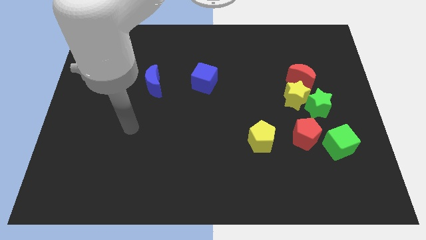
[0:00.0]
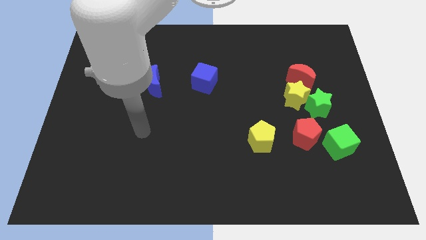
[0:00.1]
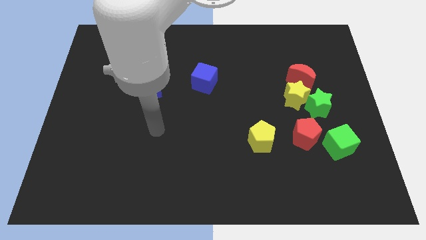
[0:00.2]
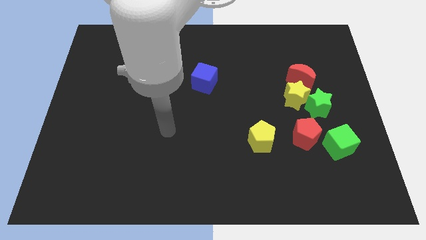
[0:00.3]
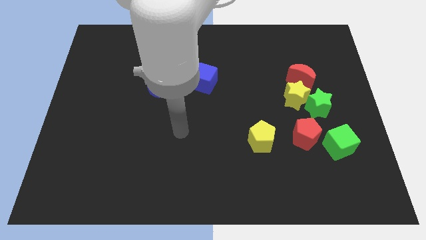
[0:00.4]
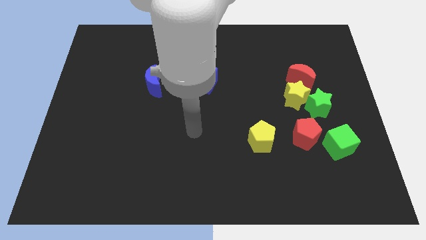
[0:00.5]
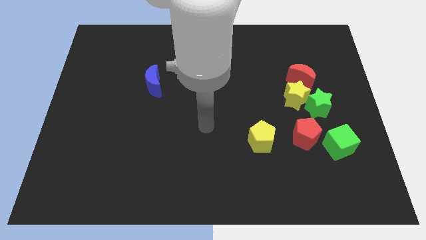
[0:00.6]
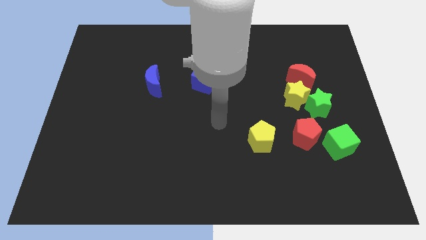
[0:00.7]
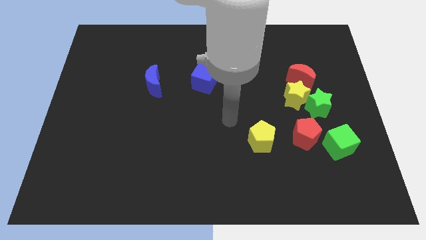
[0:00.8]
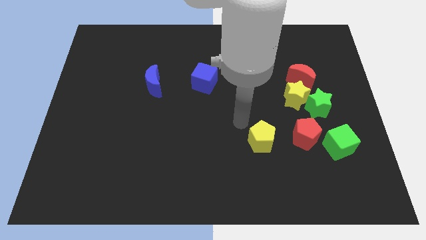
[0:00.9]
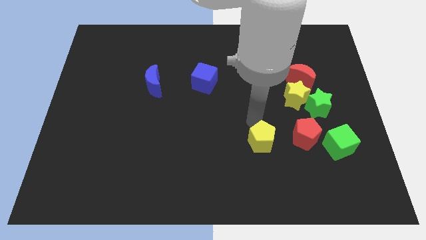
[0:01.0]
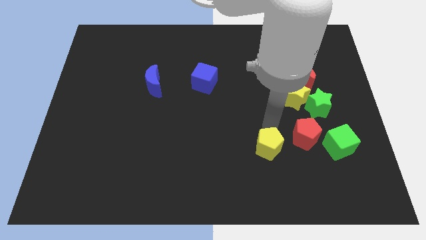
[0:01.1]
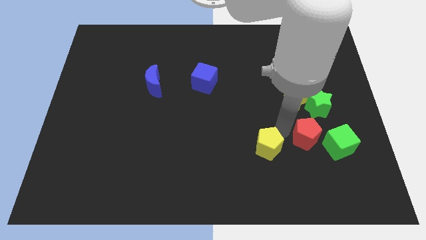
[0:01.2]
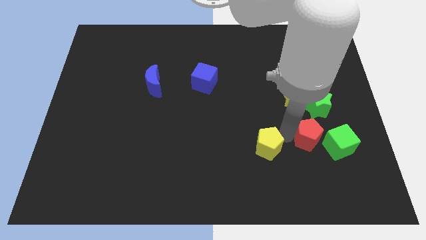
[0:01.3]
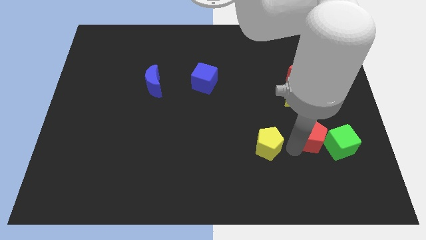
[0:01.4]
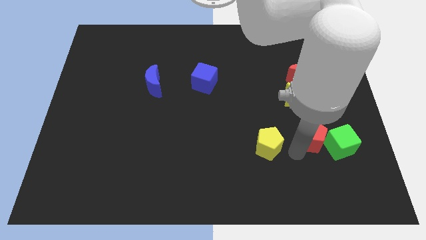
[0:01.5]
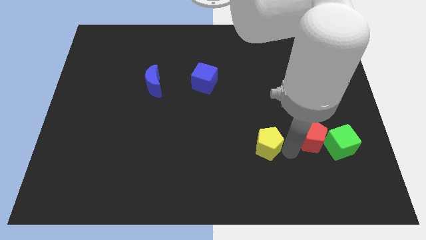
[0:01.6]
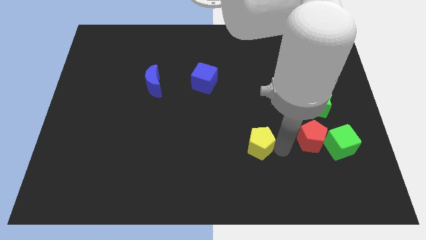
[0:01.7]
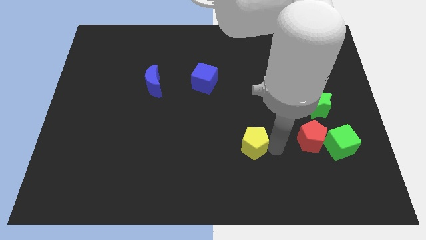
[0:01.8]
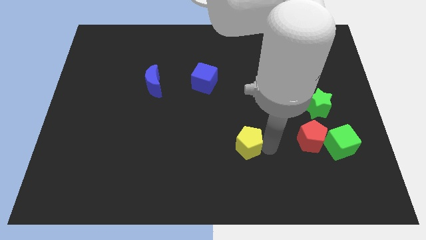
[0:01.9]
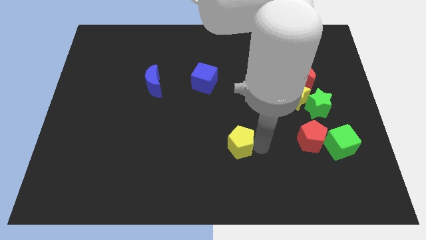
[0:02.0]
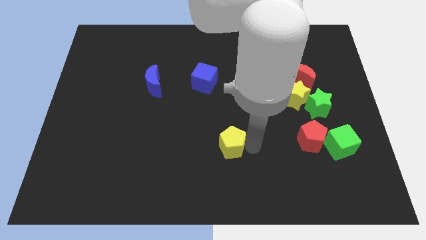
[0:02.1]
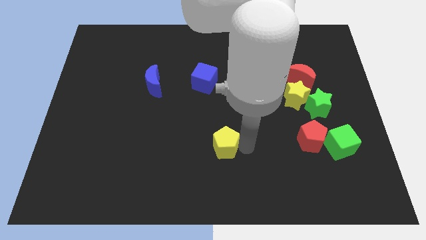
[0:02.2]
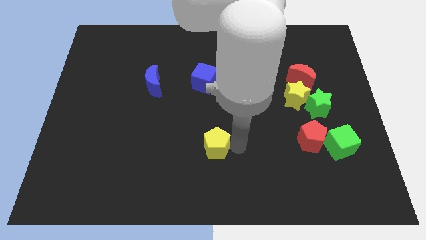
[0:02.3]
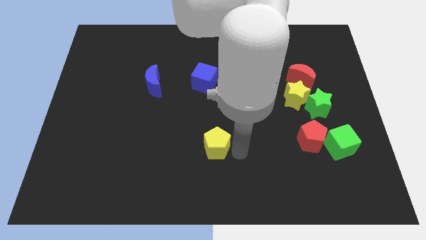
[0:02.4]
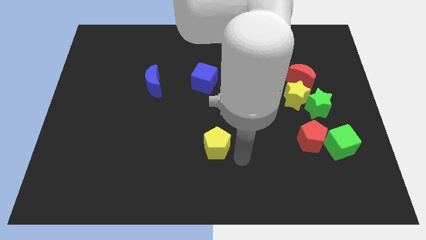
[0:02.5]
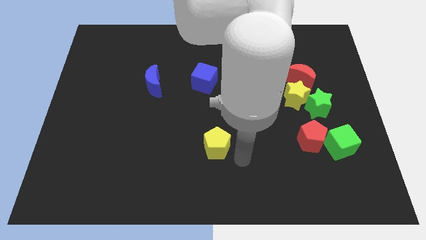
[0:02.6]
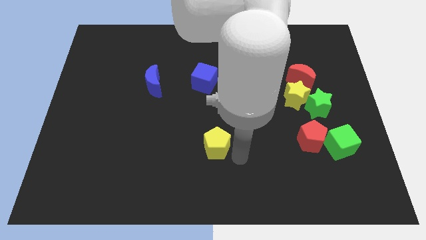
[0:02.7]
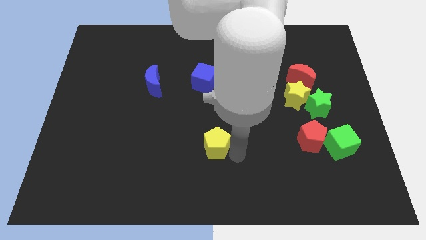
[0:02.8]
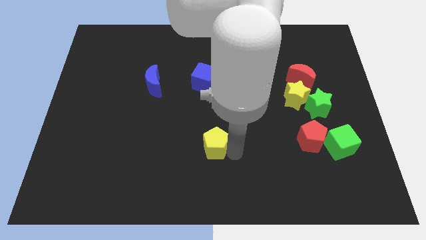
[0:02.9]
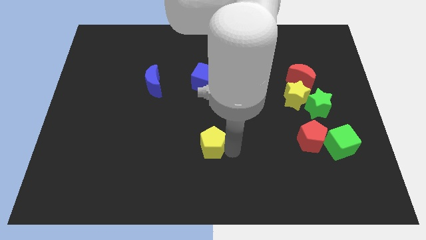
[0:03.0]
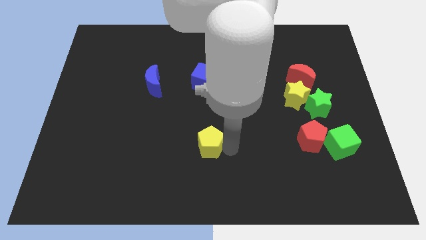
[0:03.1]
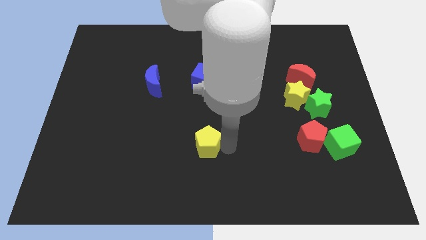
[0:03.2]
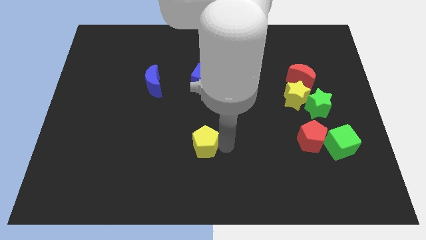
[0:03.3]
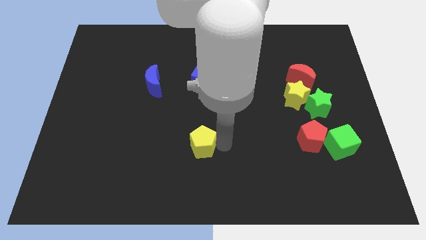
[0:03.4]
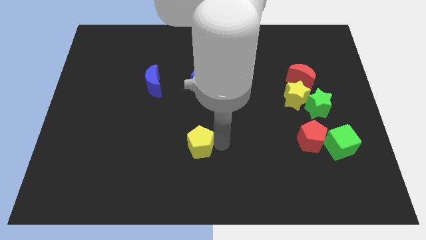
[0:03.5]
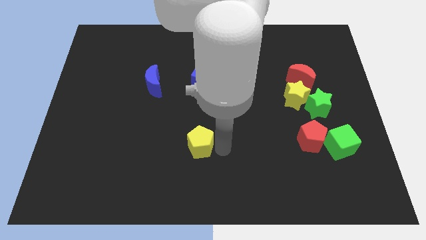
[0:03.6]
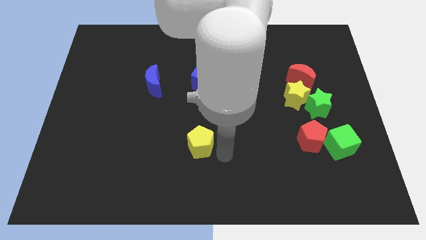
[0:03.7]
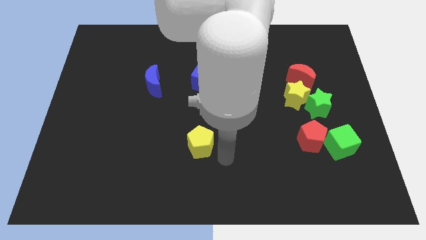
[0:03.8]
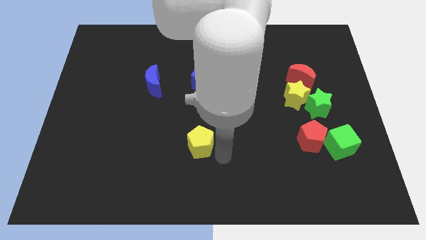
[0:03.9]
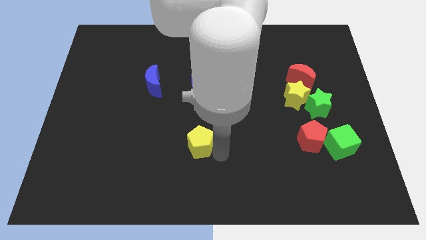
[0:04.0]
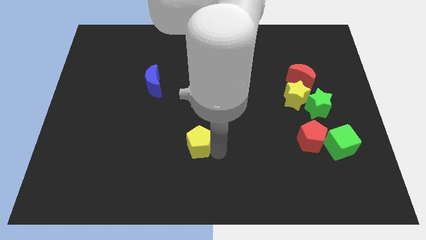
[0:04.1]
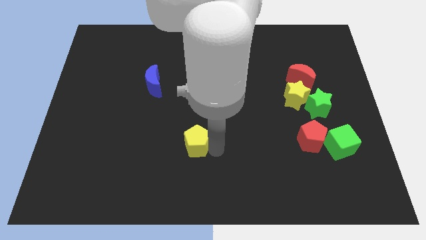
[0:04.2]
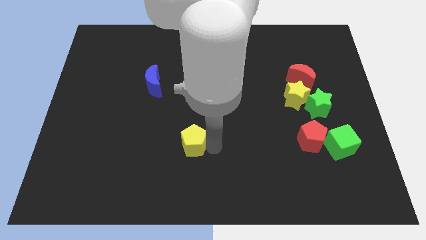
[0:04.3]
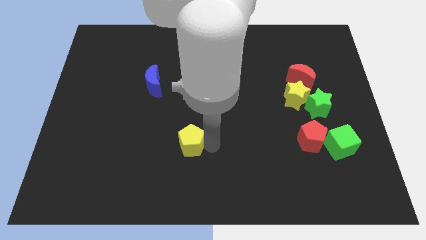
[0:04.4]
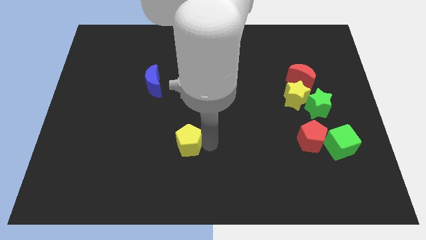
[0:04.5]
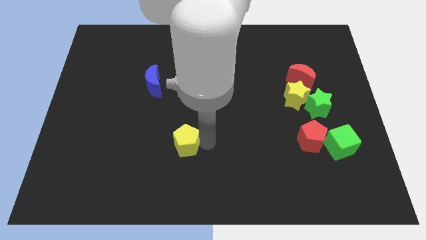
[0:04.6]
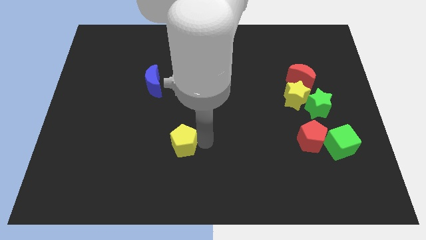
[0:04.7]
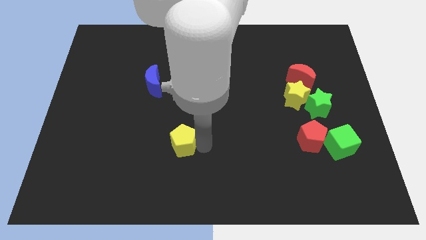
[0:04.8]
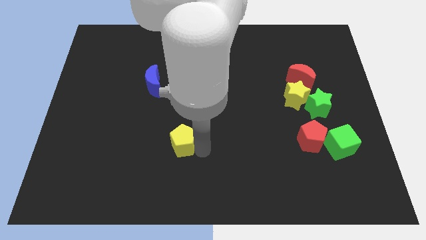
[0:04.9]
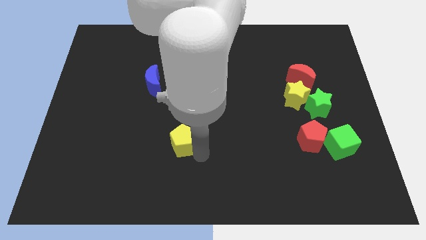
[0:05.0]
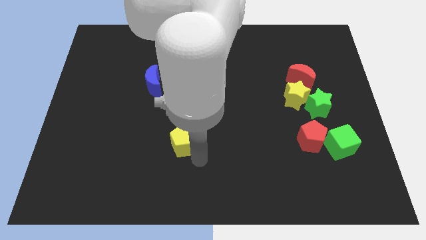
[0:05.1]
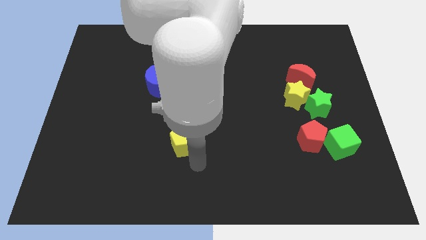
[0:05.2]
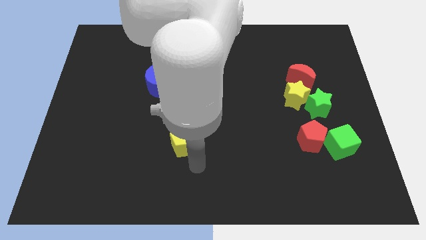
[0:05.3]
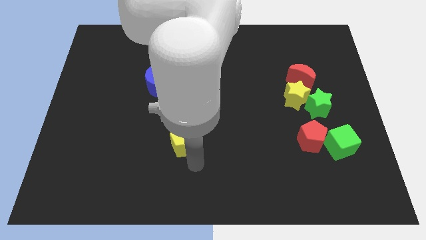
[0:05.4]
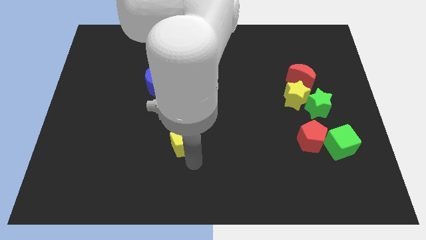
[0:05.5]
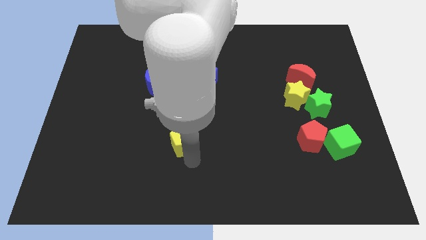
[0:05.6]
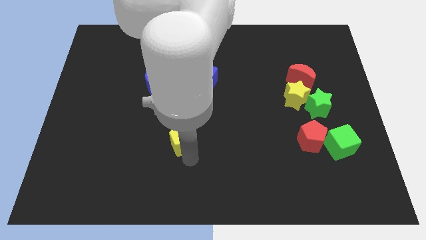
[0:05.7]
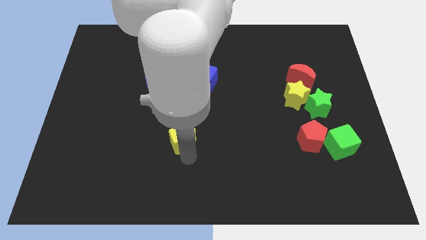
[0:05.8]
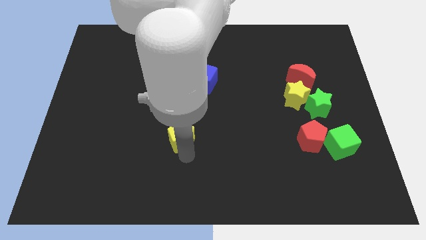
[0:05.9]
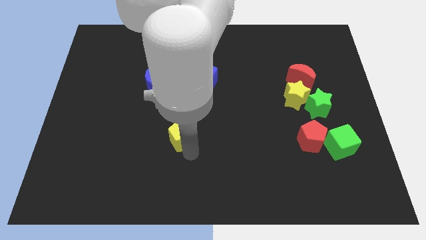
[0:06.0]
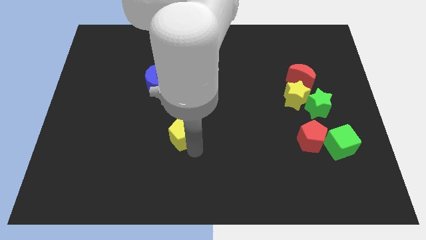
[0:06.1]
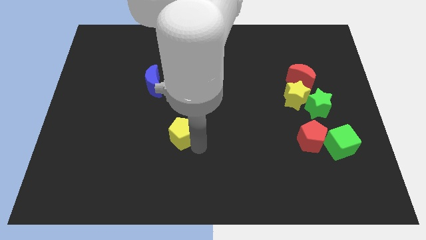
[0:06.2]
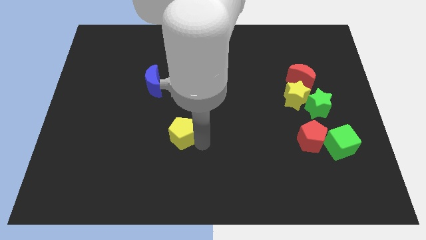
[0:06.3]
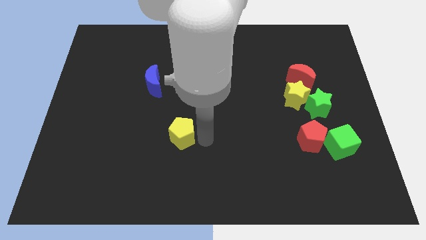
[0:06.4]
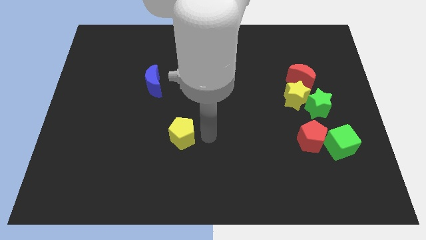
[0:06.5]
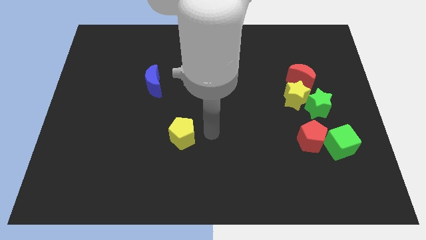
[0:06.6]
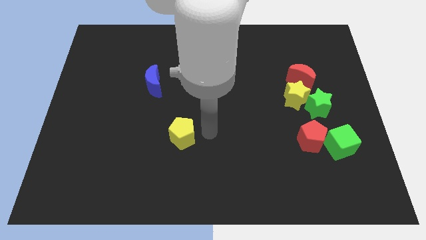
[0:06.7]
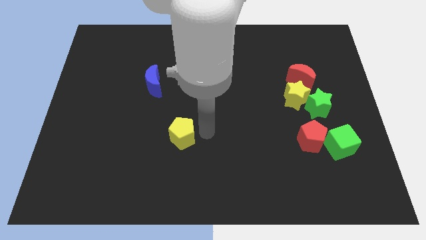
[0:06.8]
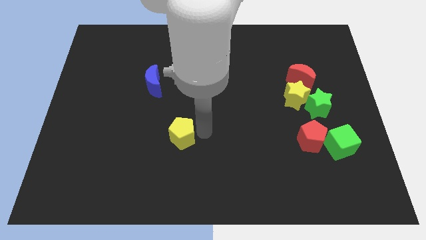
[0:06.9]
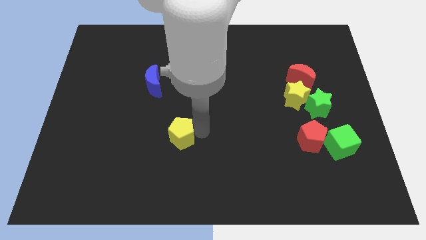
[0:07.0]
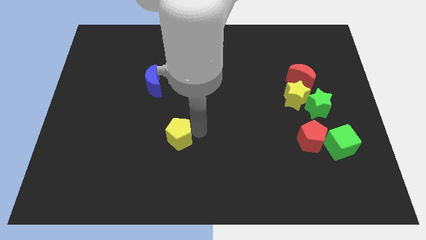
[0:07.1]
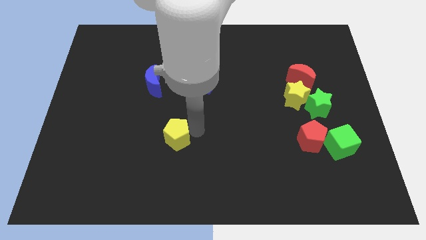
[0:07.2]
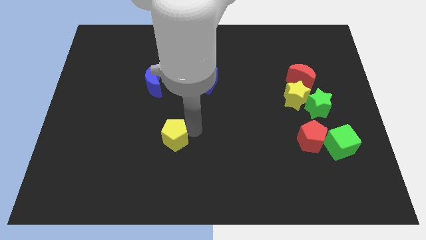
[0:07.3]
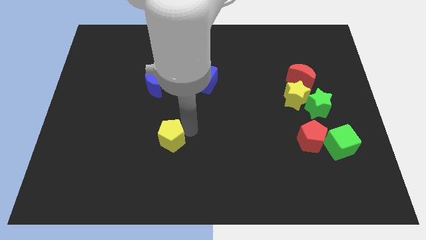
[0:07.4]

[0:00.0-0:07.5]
push the yellow pentagon to the left

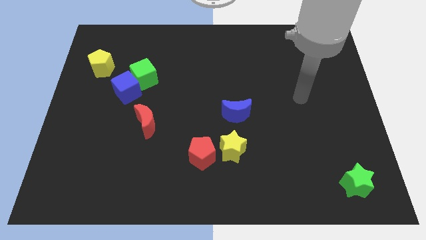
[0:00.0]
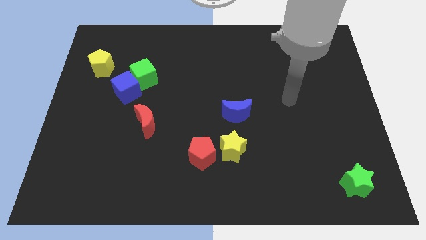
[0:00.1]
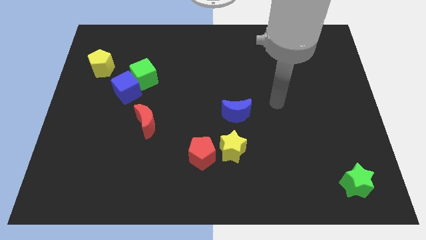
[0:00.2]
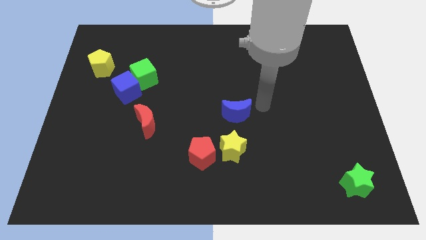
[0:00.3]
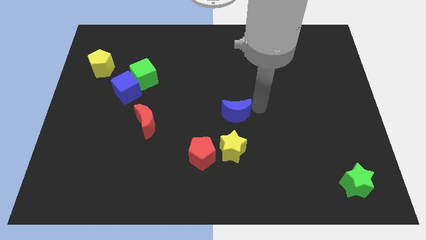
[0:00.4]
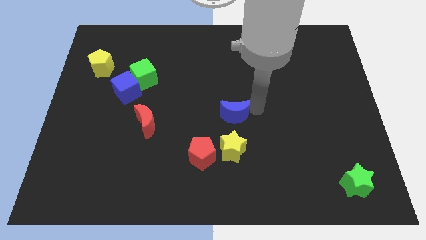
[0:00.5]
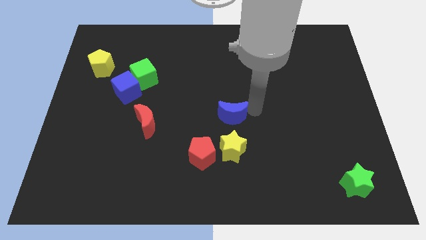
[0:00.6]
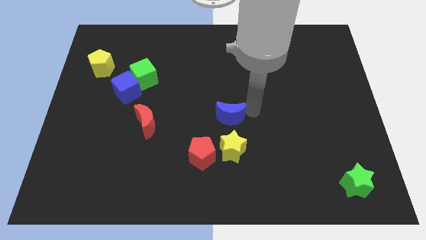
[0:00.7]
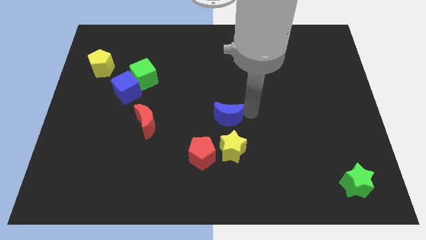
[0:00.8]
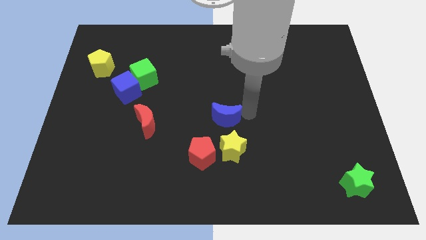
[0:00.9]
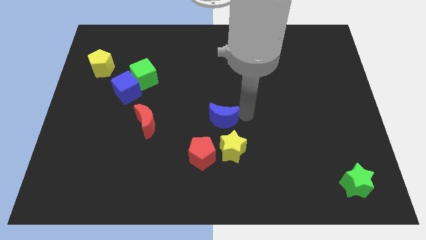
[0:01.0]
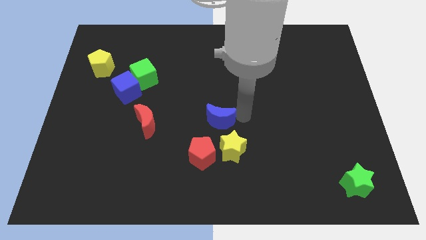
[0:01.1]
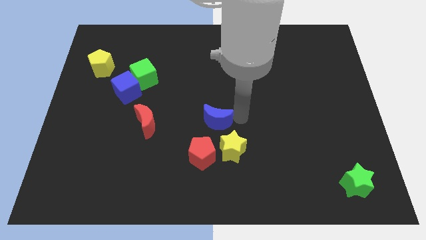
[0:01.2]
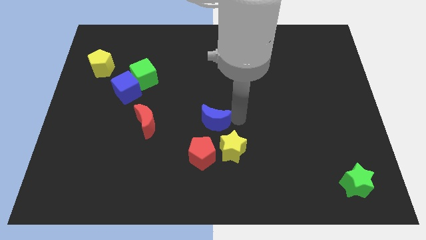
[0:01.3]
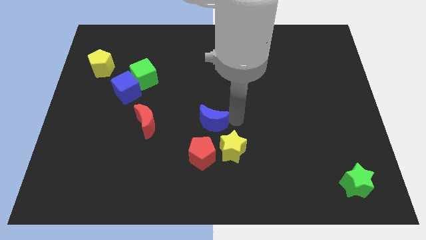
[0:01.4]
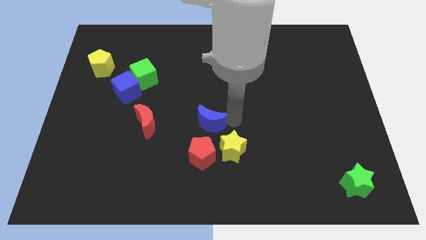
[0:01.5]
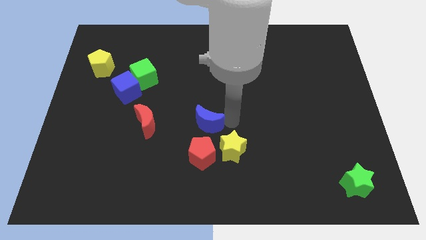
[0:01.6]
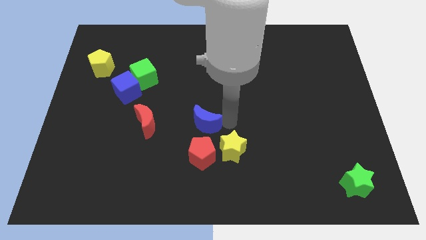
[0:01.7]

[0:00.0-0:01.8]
slightly push the blue moon diagonally downwards and to the left
